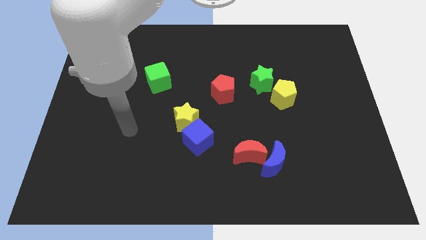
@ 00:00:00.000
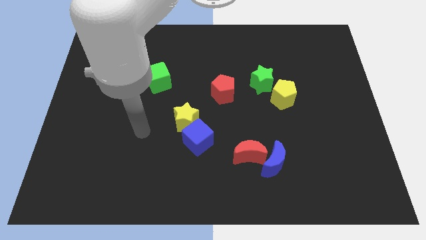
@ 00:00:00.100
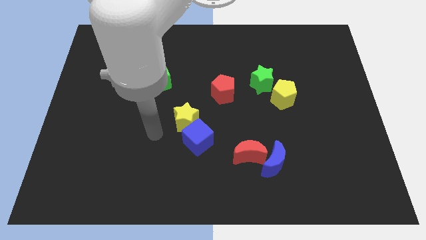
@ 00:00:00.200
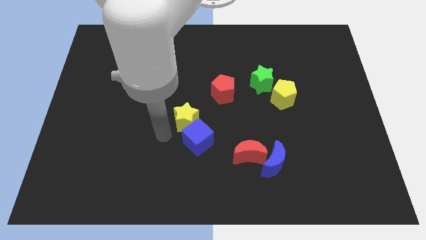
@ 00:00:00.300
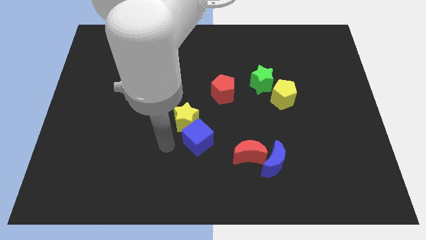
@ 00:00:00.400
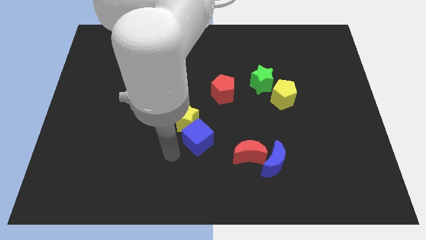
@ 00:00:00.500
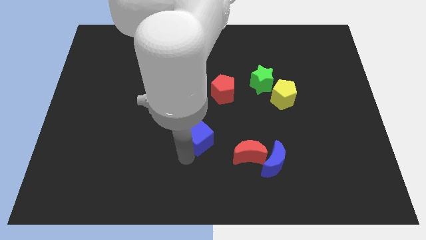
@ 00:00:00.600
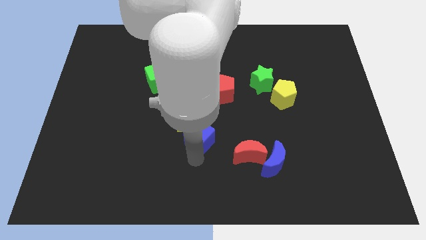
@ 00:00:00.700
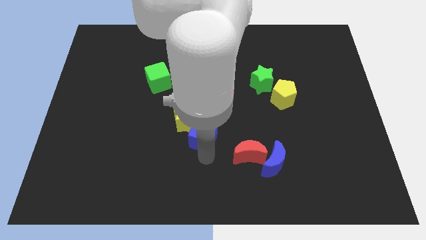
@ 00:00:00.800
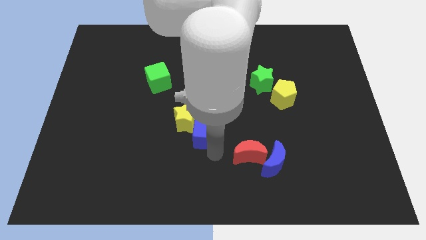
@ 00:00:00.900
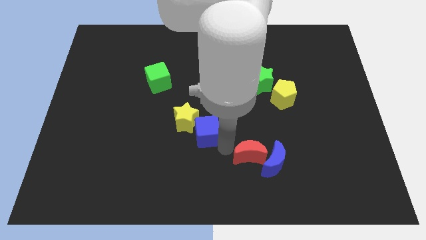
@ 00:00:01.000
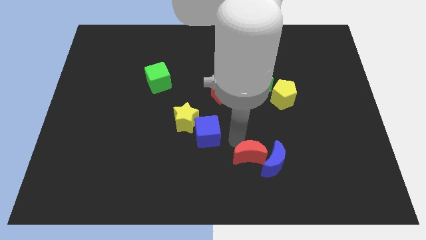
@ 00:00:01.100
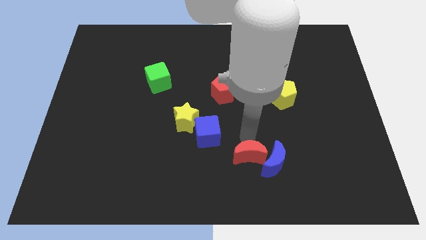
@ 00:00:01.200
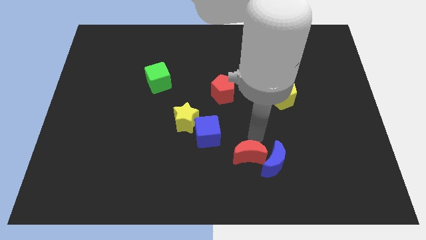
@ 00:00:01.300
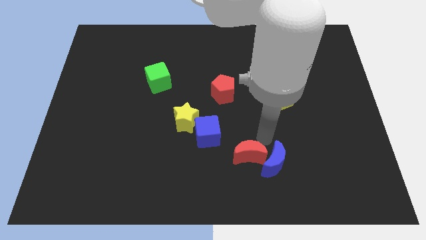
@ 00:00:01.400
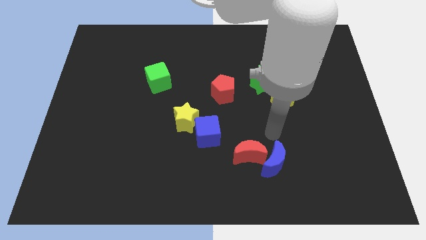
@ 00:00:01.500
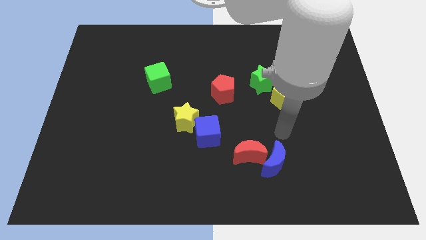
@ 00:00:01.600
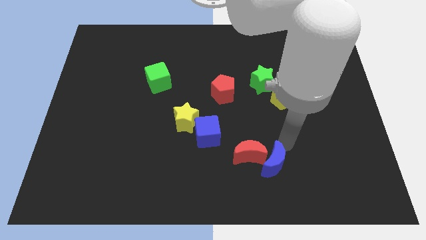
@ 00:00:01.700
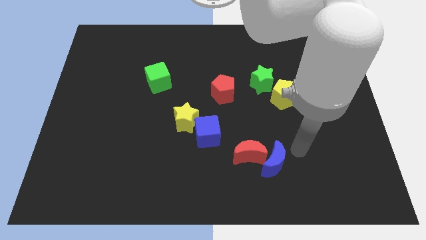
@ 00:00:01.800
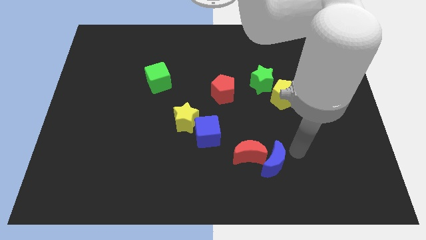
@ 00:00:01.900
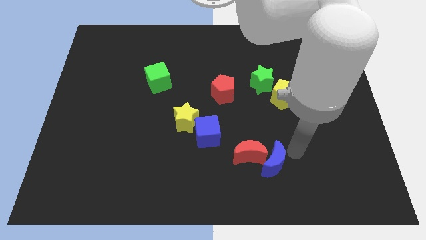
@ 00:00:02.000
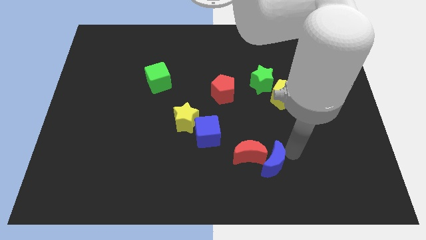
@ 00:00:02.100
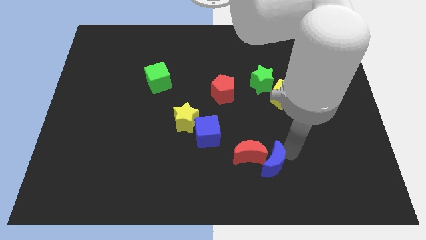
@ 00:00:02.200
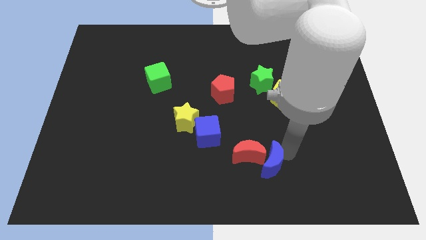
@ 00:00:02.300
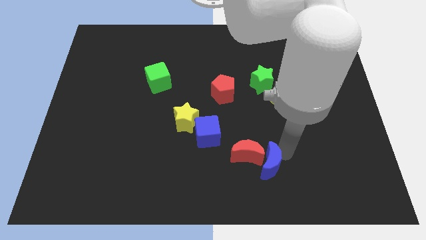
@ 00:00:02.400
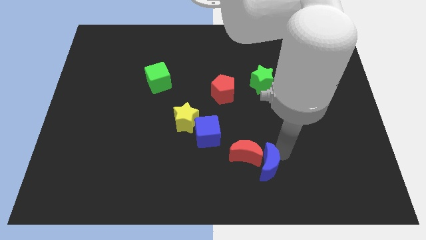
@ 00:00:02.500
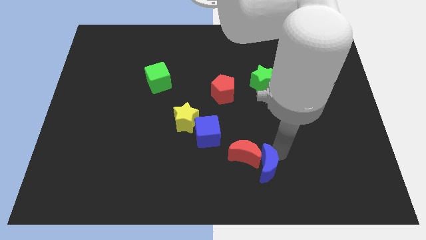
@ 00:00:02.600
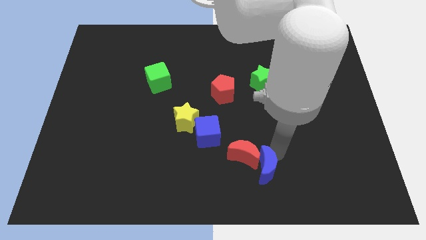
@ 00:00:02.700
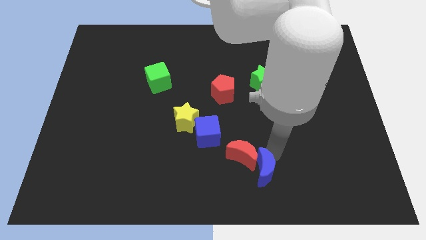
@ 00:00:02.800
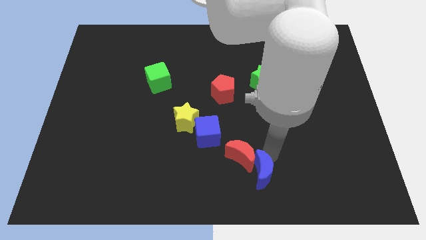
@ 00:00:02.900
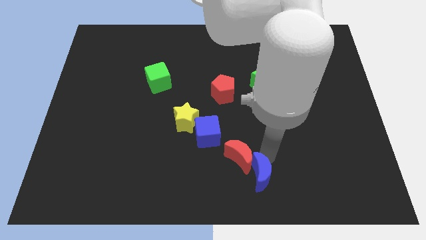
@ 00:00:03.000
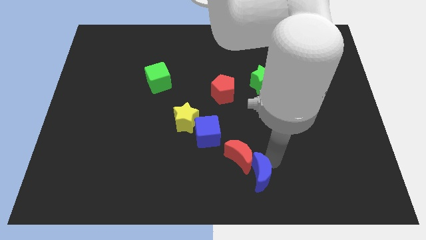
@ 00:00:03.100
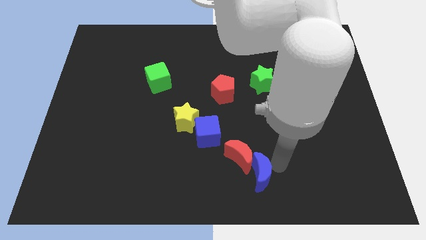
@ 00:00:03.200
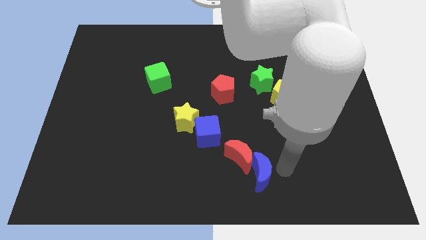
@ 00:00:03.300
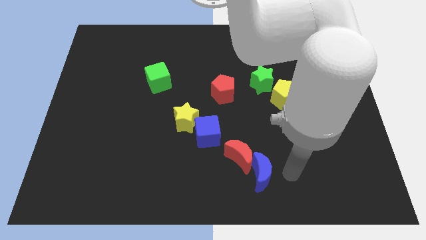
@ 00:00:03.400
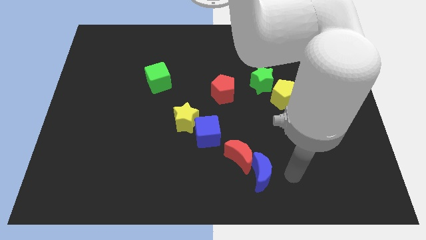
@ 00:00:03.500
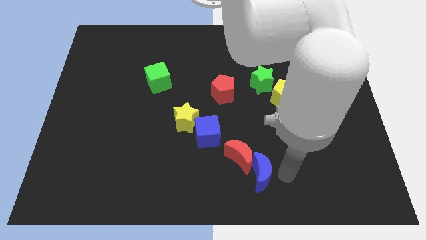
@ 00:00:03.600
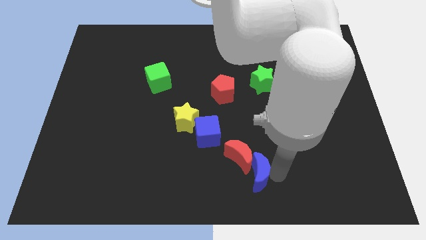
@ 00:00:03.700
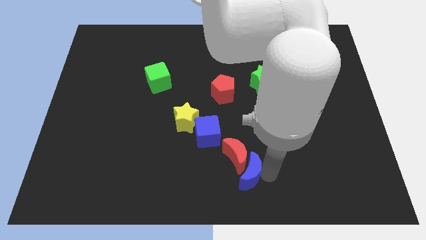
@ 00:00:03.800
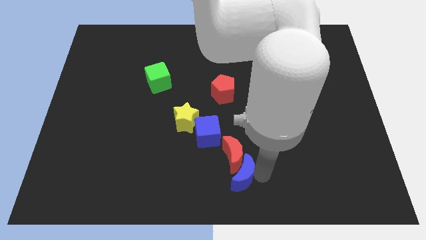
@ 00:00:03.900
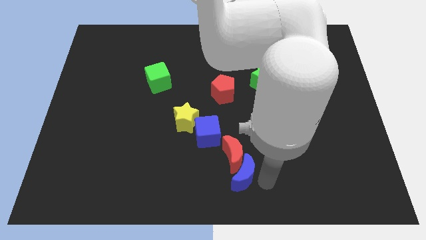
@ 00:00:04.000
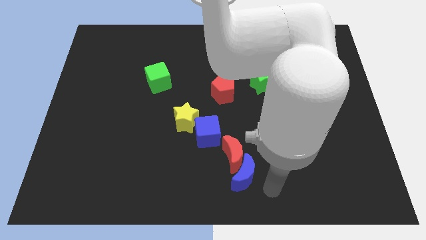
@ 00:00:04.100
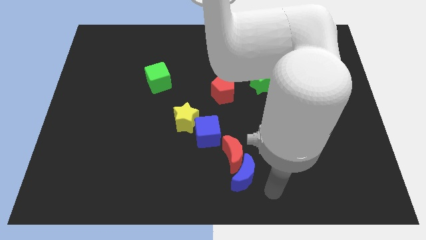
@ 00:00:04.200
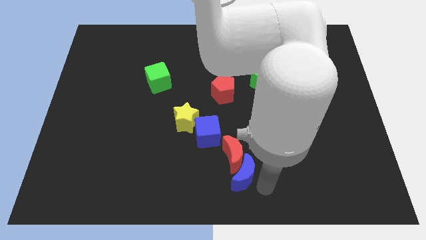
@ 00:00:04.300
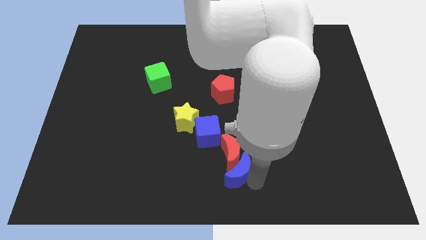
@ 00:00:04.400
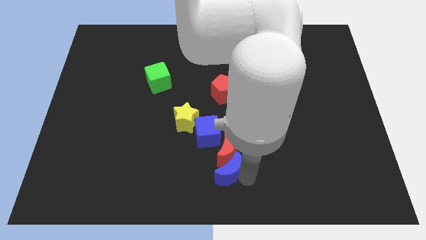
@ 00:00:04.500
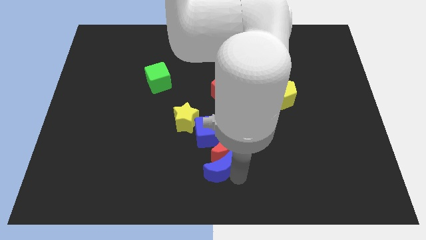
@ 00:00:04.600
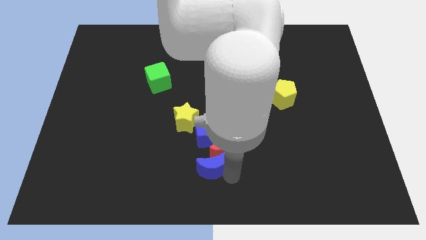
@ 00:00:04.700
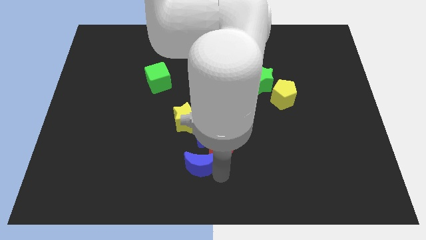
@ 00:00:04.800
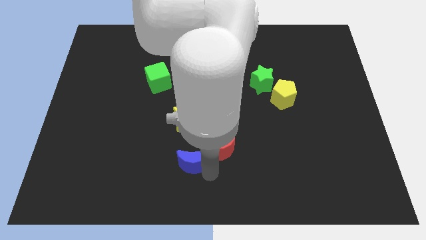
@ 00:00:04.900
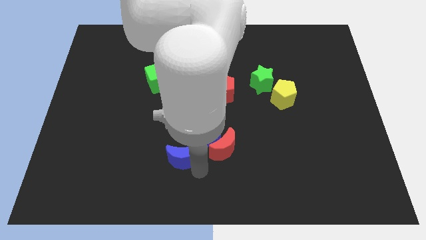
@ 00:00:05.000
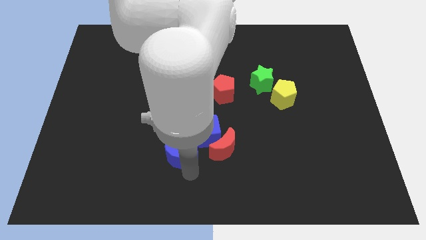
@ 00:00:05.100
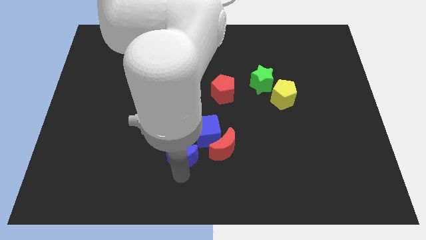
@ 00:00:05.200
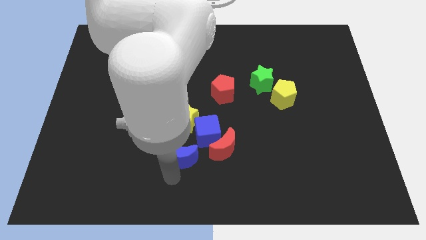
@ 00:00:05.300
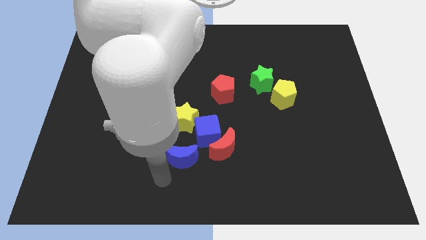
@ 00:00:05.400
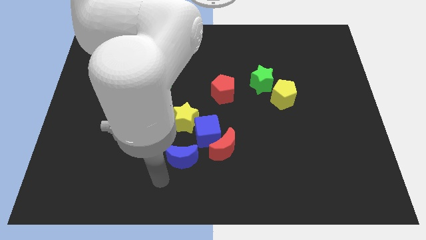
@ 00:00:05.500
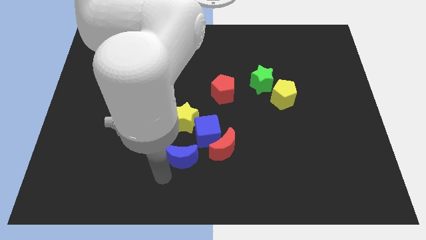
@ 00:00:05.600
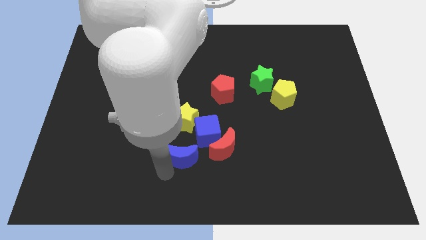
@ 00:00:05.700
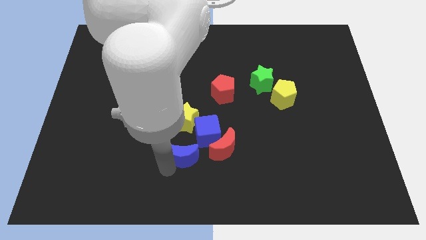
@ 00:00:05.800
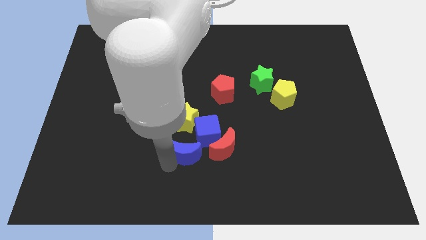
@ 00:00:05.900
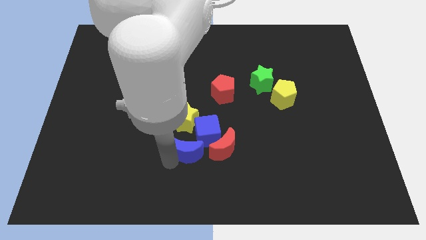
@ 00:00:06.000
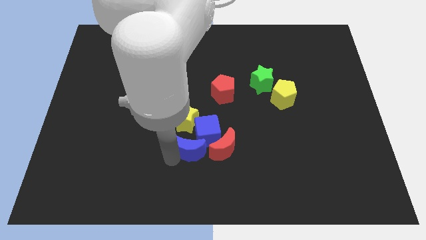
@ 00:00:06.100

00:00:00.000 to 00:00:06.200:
slide the blue moon close to the blue cube

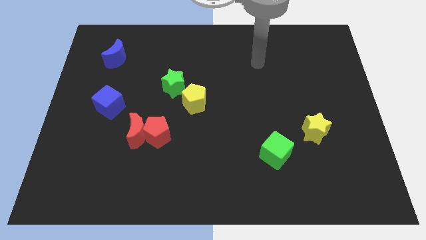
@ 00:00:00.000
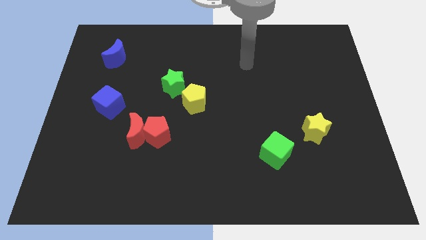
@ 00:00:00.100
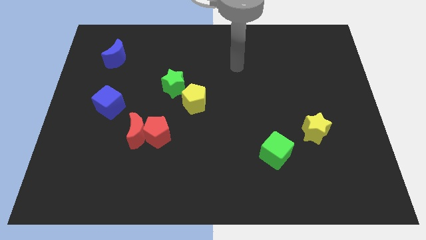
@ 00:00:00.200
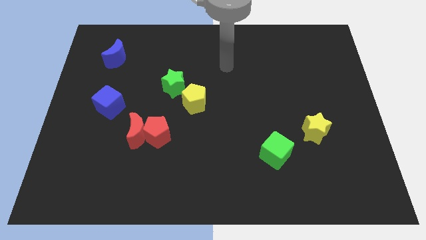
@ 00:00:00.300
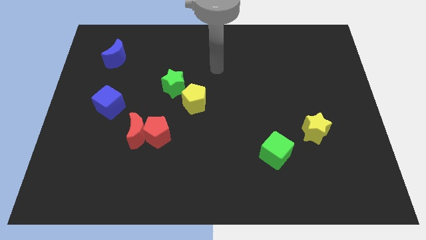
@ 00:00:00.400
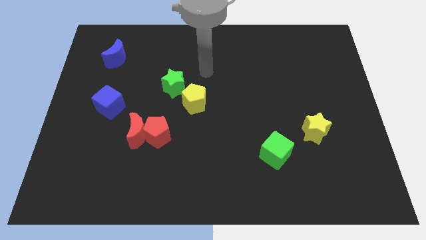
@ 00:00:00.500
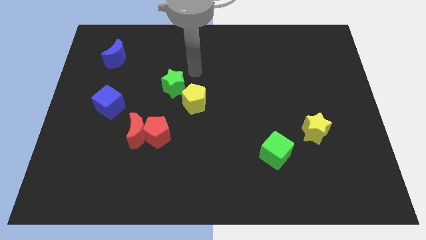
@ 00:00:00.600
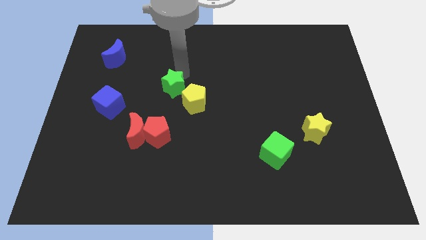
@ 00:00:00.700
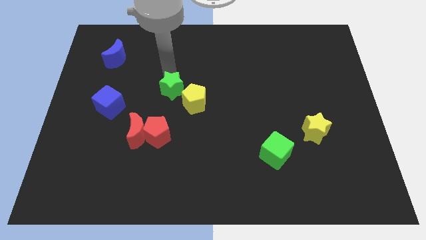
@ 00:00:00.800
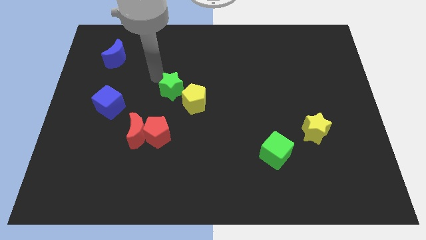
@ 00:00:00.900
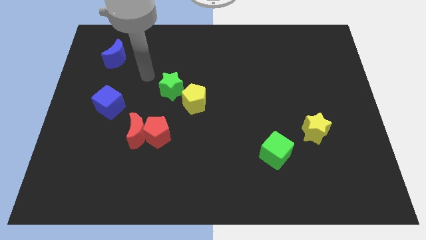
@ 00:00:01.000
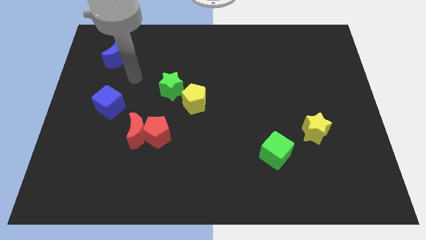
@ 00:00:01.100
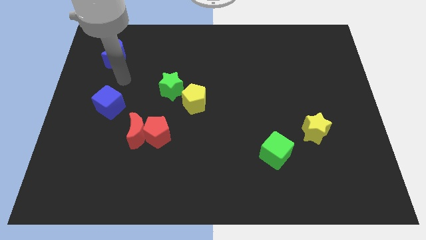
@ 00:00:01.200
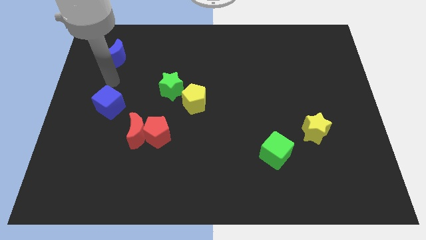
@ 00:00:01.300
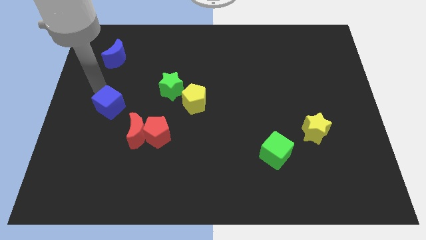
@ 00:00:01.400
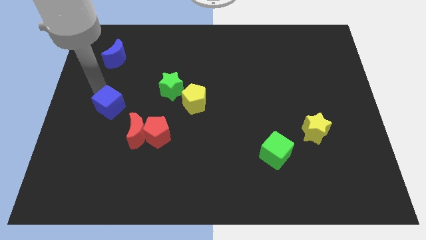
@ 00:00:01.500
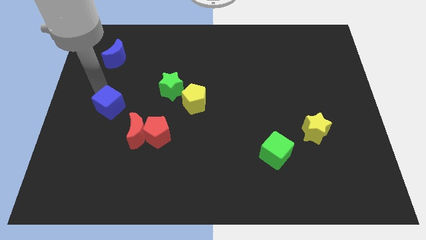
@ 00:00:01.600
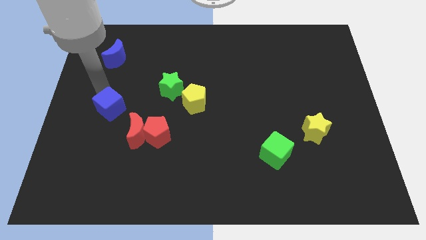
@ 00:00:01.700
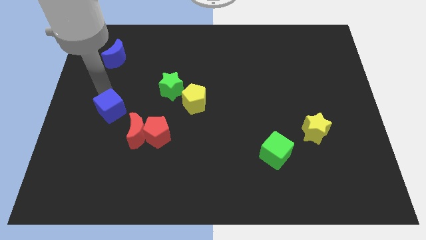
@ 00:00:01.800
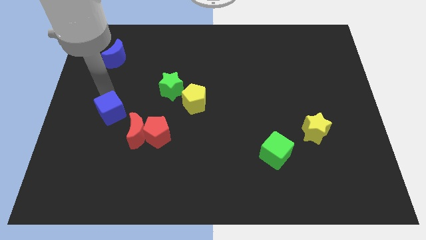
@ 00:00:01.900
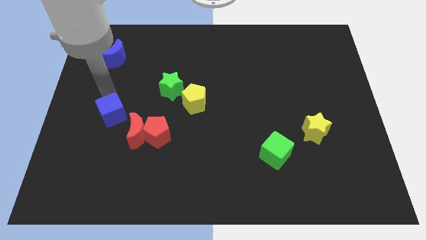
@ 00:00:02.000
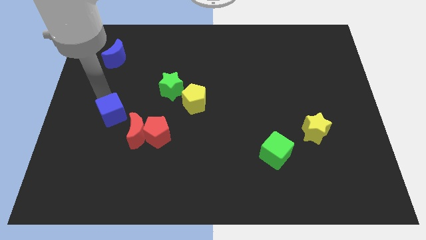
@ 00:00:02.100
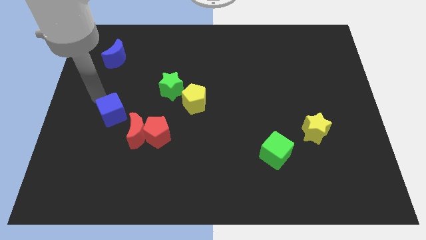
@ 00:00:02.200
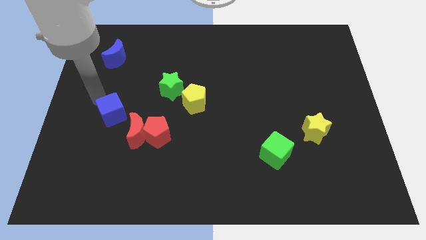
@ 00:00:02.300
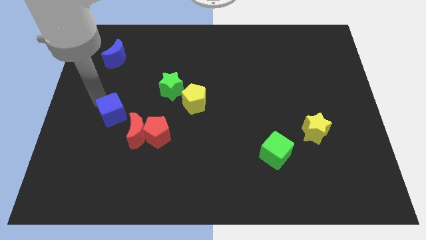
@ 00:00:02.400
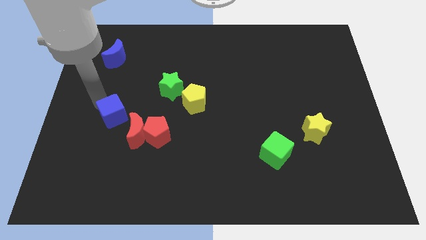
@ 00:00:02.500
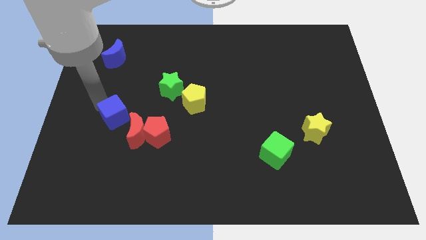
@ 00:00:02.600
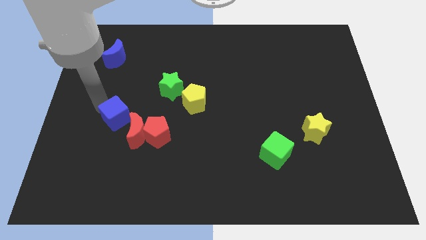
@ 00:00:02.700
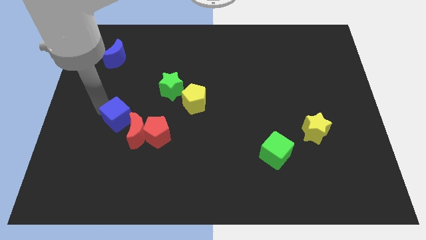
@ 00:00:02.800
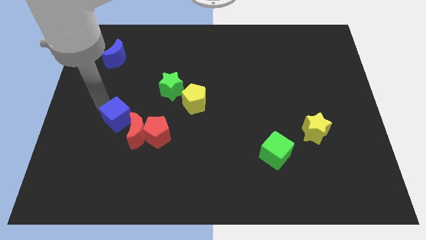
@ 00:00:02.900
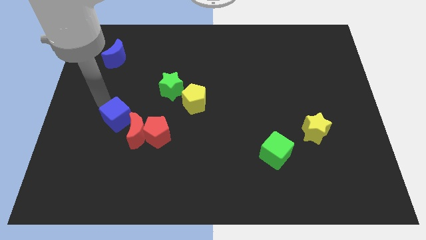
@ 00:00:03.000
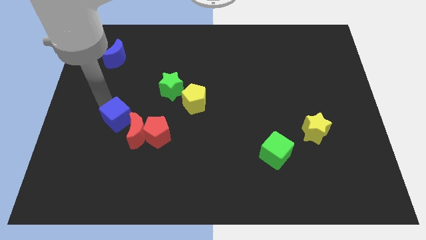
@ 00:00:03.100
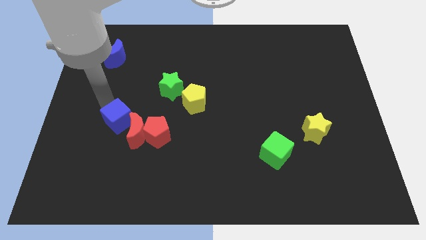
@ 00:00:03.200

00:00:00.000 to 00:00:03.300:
move the blue cube next to the red moon
